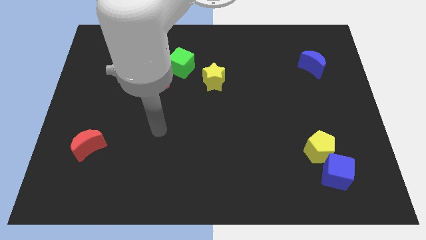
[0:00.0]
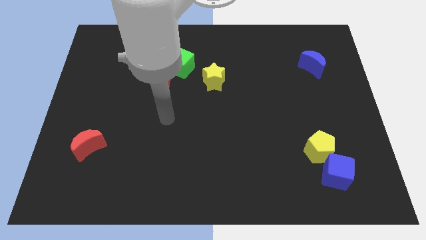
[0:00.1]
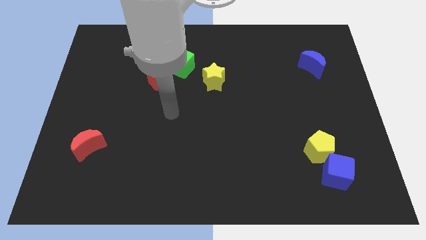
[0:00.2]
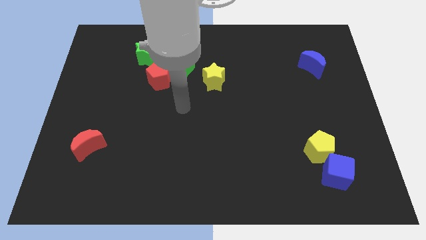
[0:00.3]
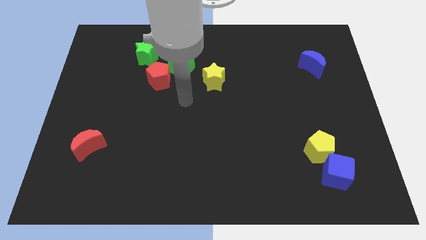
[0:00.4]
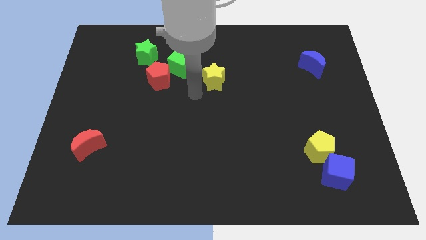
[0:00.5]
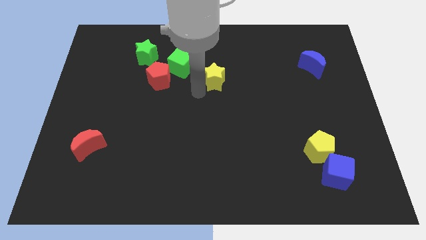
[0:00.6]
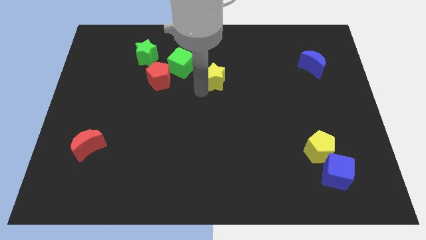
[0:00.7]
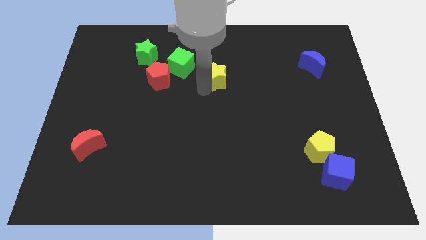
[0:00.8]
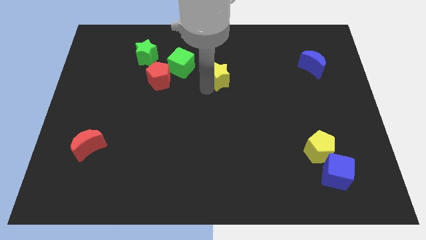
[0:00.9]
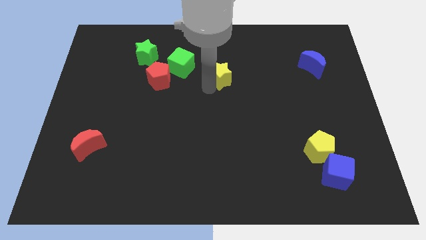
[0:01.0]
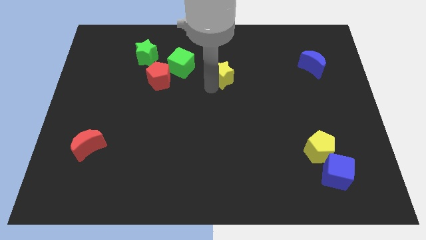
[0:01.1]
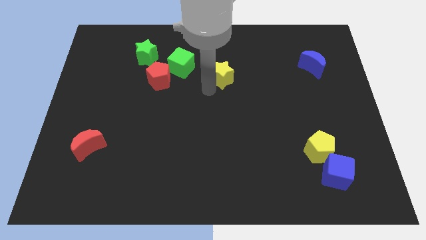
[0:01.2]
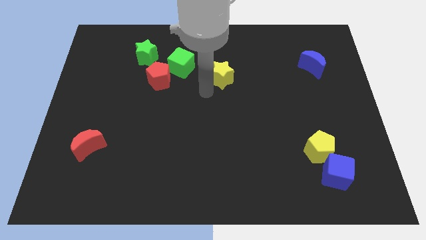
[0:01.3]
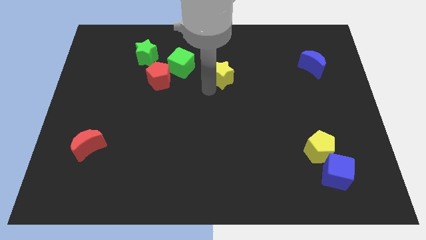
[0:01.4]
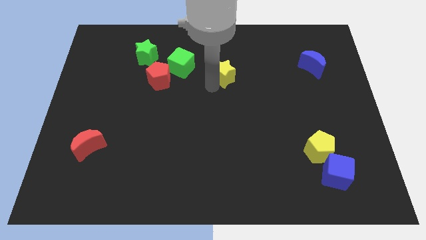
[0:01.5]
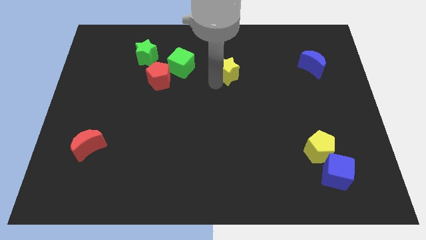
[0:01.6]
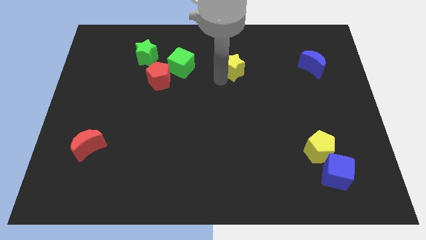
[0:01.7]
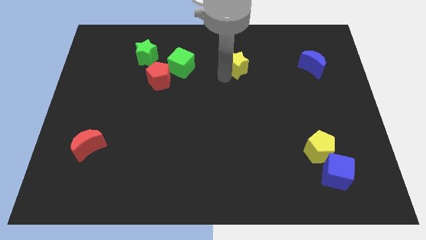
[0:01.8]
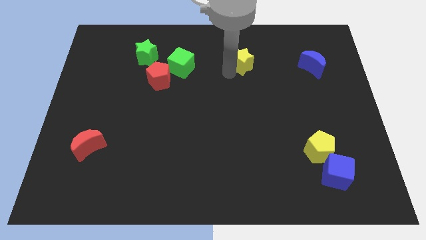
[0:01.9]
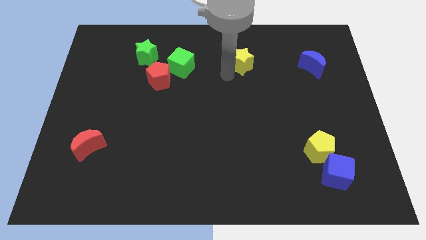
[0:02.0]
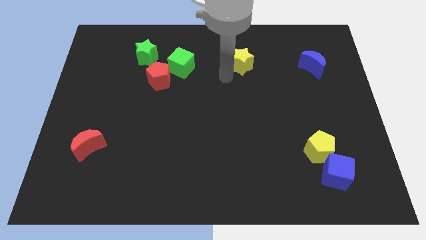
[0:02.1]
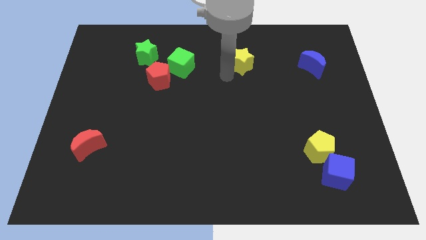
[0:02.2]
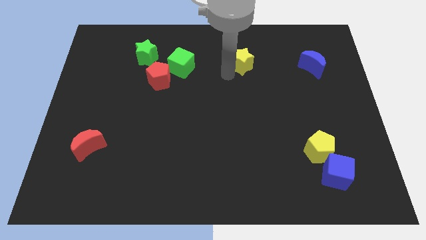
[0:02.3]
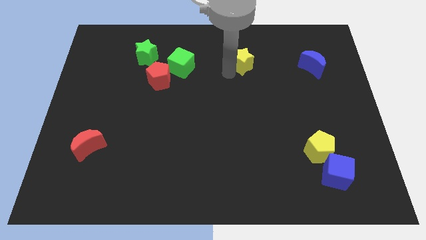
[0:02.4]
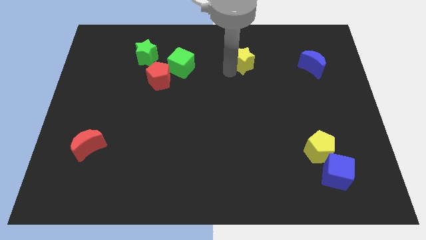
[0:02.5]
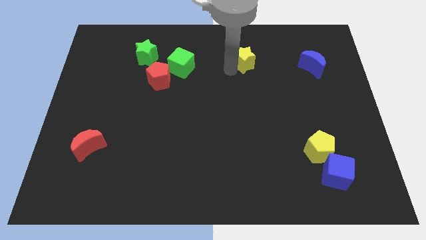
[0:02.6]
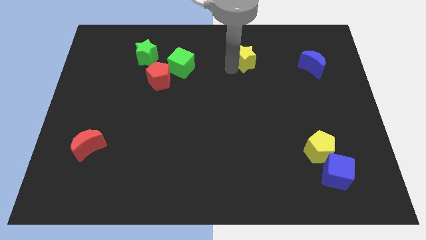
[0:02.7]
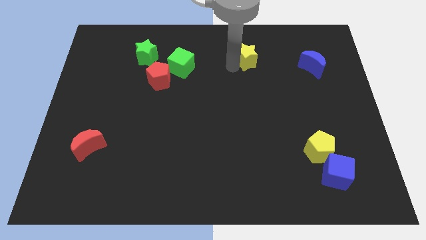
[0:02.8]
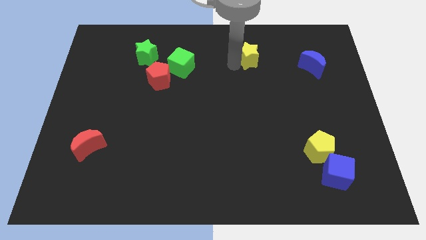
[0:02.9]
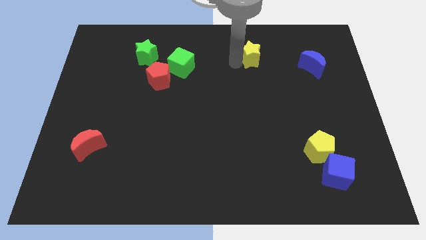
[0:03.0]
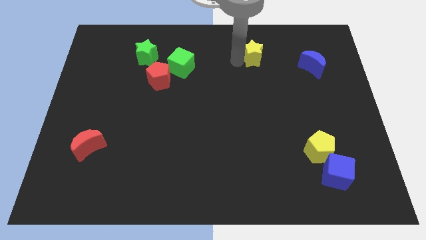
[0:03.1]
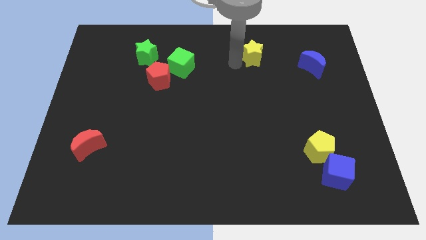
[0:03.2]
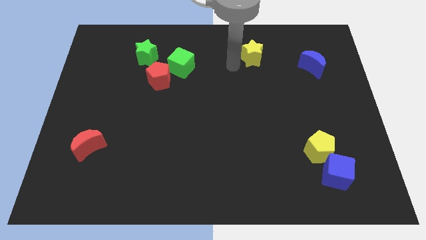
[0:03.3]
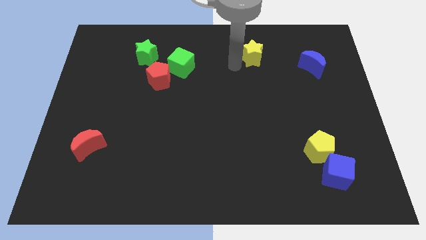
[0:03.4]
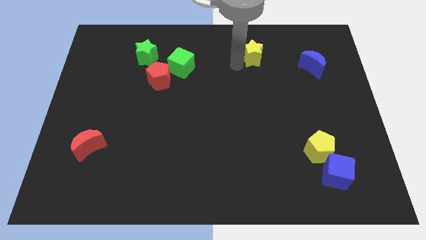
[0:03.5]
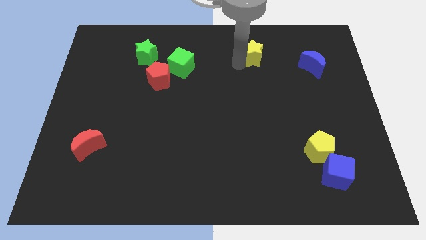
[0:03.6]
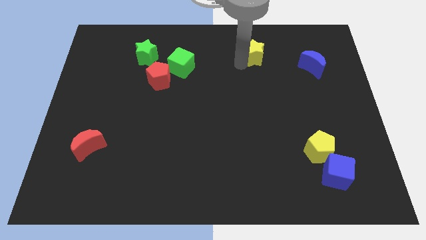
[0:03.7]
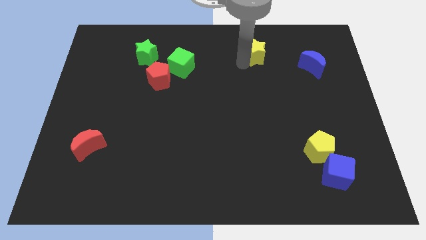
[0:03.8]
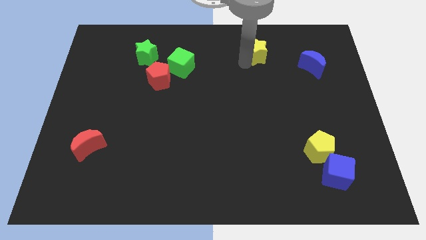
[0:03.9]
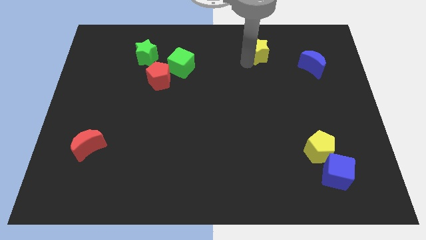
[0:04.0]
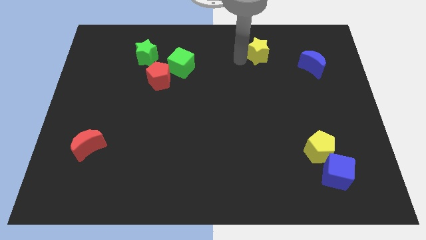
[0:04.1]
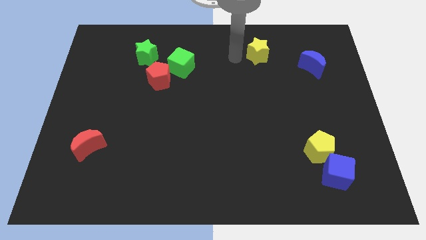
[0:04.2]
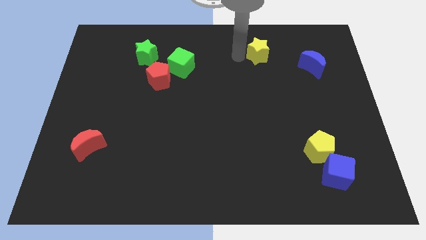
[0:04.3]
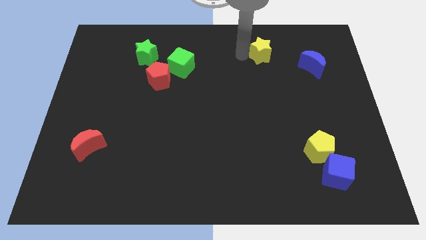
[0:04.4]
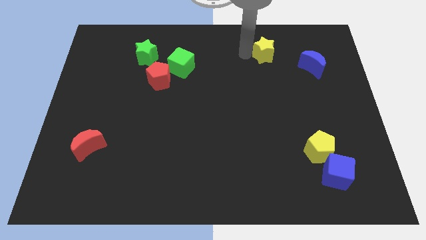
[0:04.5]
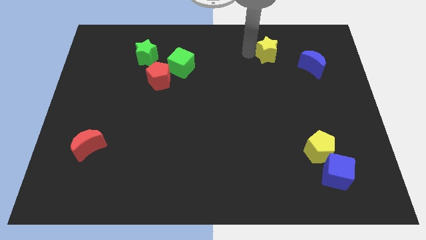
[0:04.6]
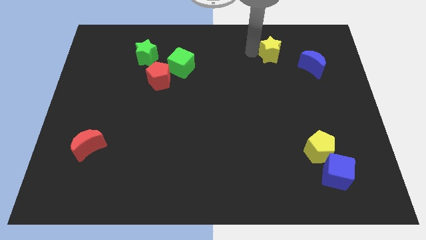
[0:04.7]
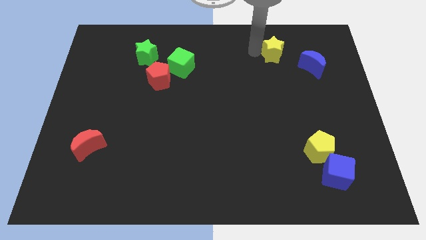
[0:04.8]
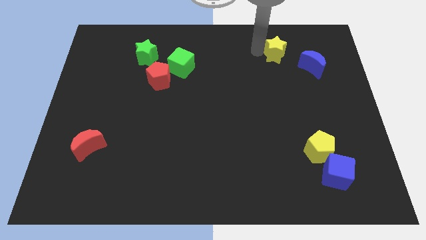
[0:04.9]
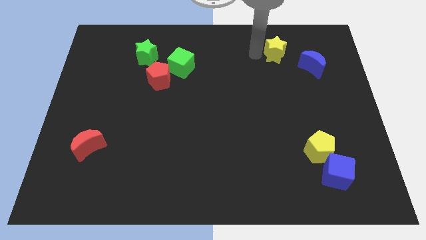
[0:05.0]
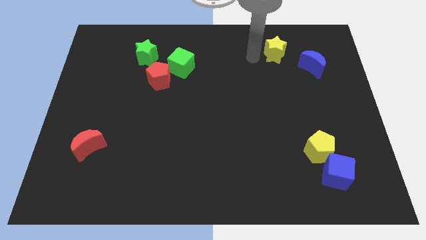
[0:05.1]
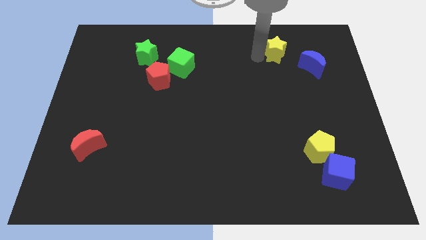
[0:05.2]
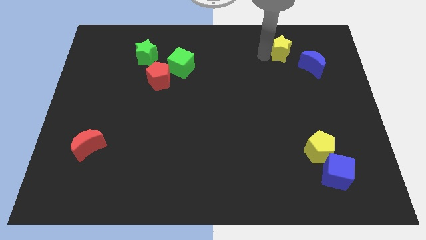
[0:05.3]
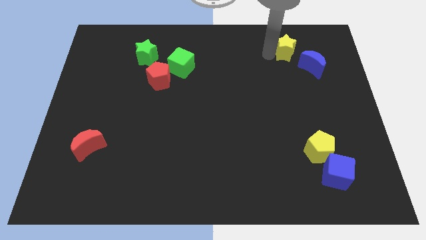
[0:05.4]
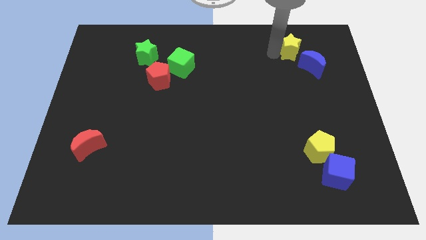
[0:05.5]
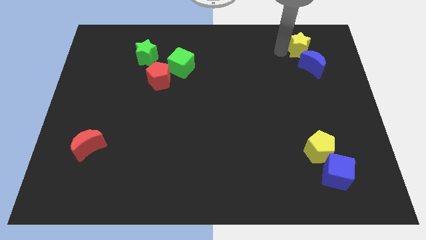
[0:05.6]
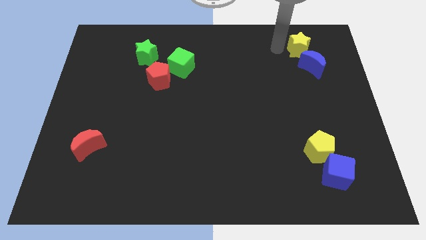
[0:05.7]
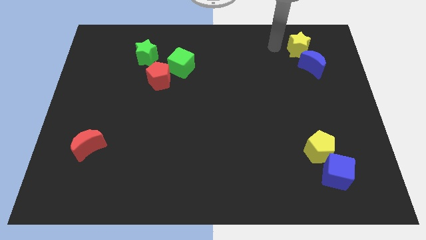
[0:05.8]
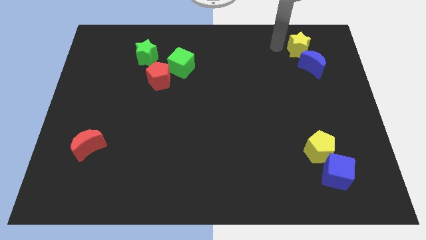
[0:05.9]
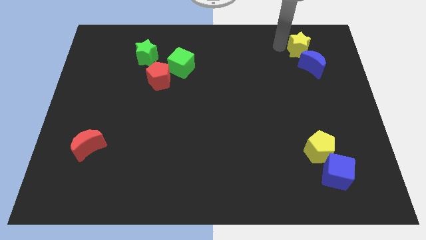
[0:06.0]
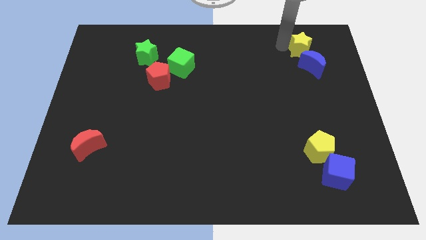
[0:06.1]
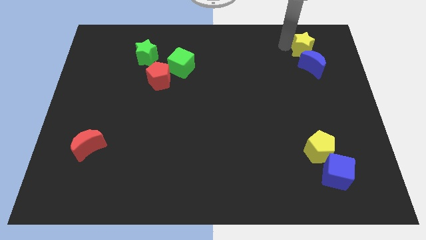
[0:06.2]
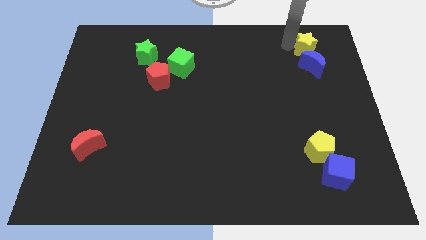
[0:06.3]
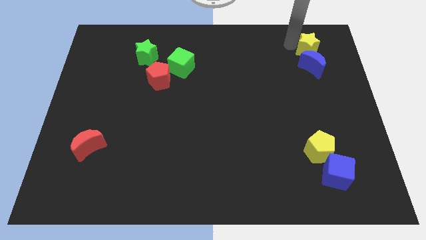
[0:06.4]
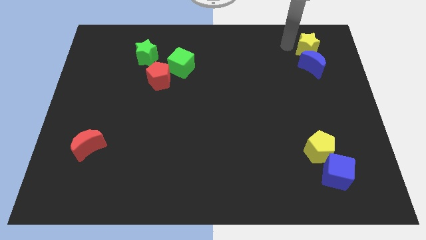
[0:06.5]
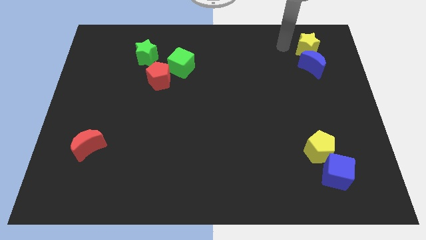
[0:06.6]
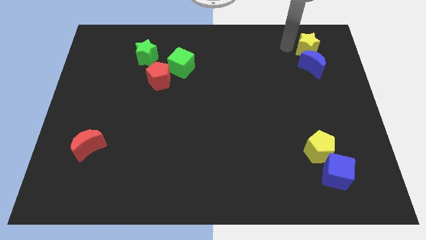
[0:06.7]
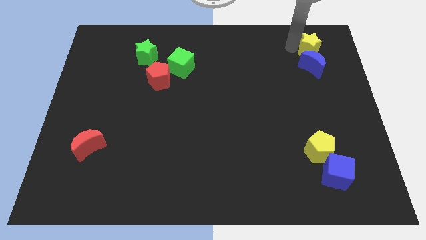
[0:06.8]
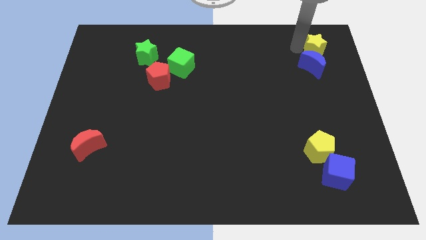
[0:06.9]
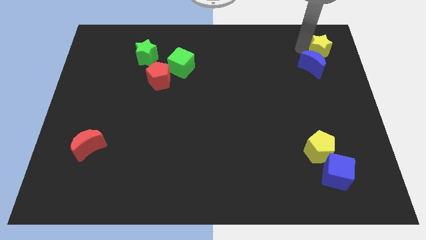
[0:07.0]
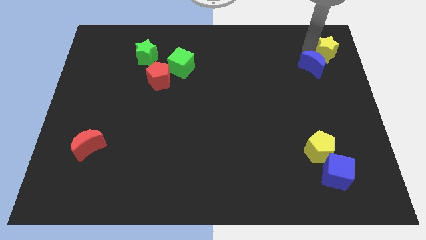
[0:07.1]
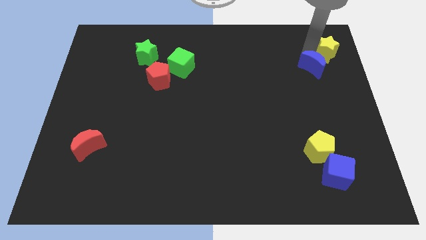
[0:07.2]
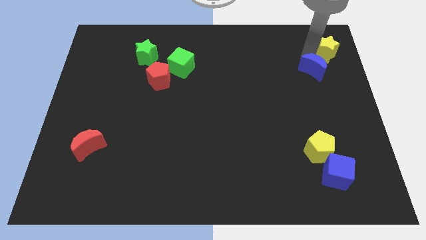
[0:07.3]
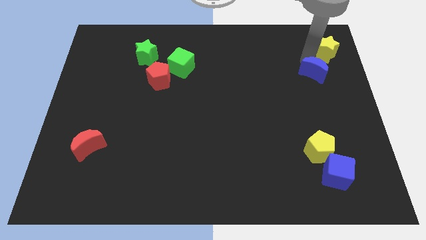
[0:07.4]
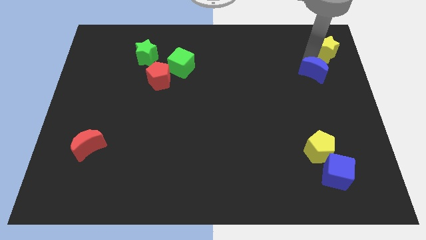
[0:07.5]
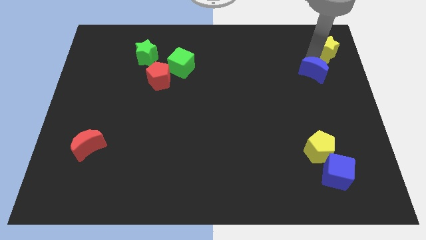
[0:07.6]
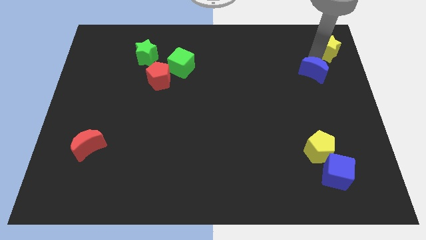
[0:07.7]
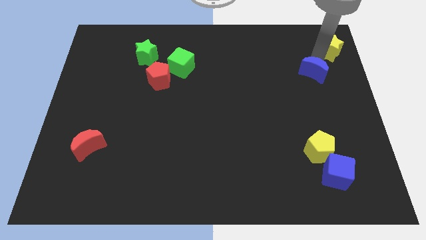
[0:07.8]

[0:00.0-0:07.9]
slide the yellow star to the top right of the board
